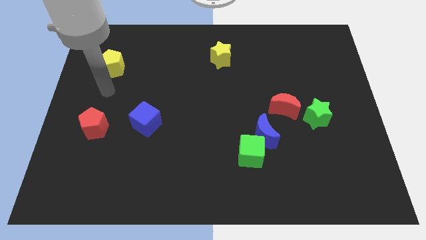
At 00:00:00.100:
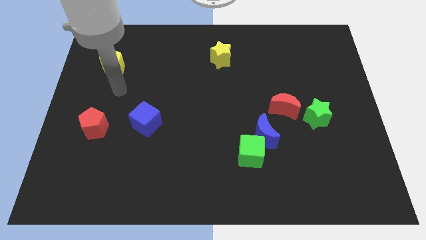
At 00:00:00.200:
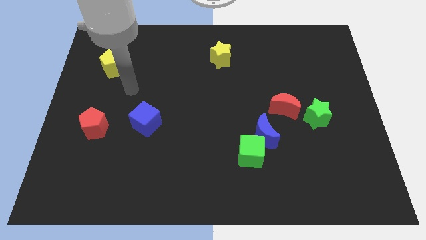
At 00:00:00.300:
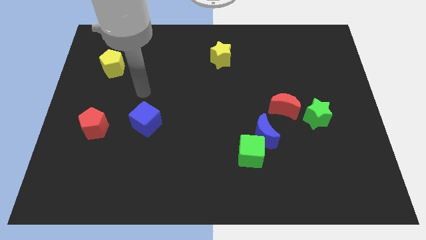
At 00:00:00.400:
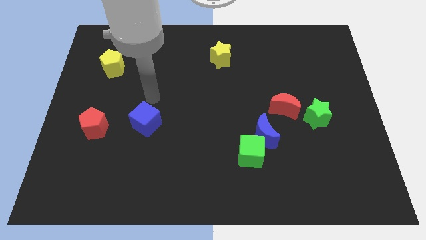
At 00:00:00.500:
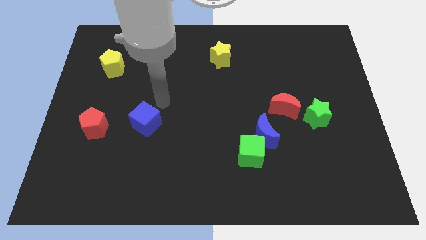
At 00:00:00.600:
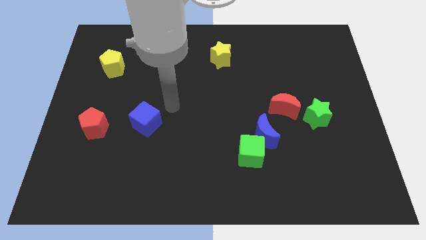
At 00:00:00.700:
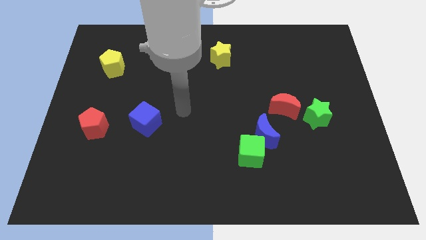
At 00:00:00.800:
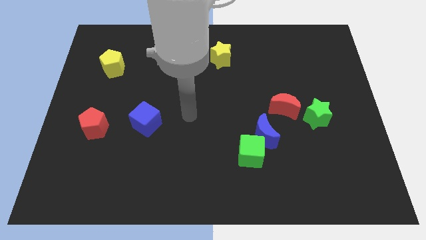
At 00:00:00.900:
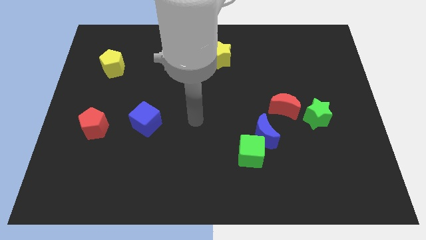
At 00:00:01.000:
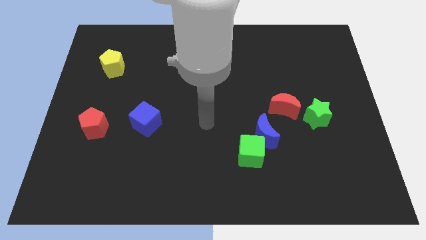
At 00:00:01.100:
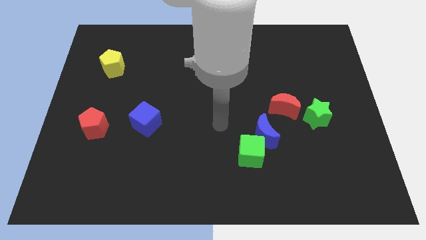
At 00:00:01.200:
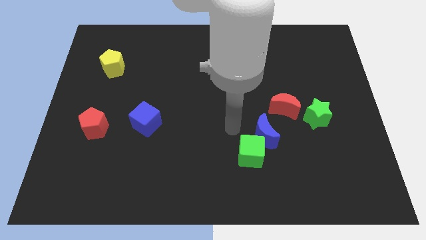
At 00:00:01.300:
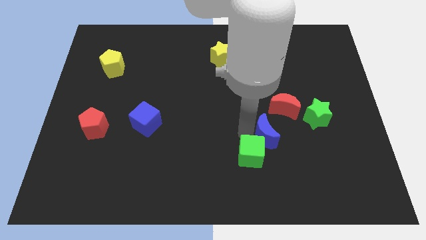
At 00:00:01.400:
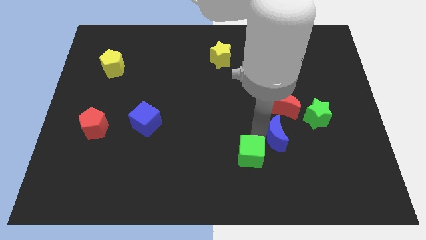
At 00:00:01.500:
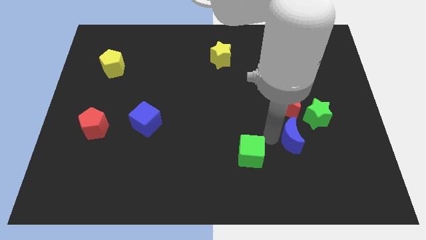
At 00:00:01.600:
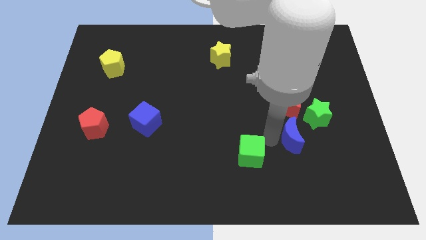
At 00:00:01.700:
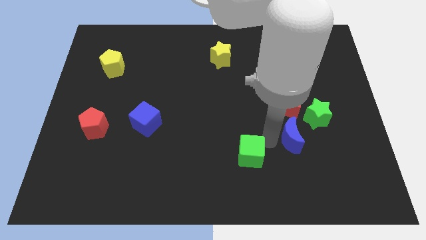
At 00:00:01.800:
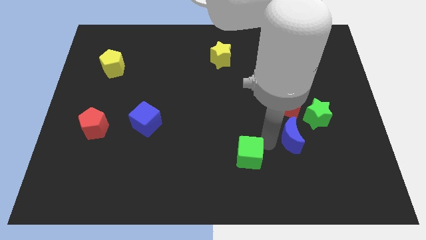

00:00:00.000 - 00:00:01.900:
move the green cube away from the blue moon

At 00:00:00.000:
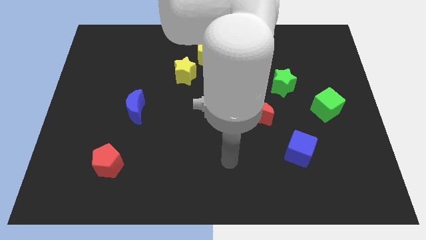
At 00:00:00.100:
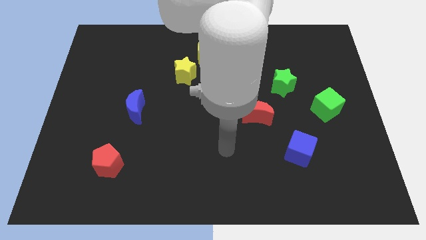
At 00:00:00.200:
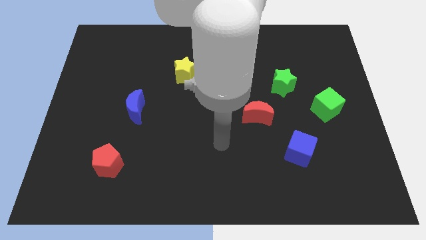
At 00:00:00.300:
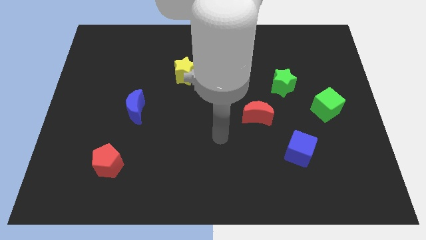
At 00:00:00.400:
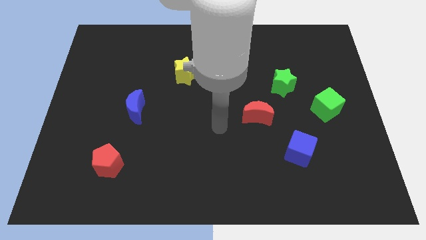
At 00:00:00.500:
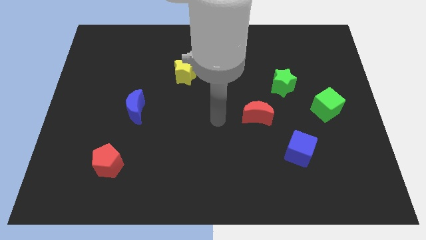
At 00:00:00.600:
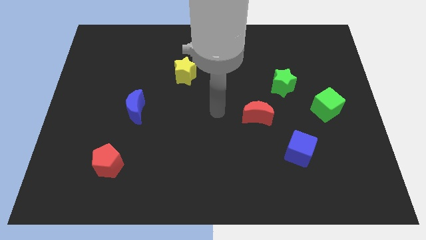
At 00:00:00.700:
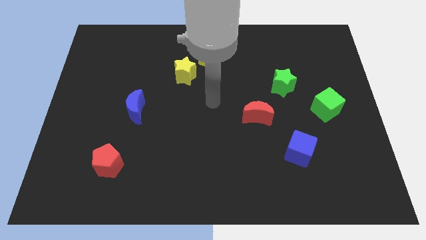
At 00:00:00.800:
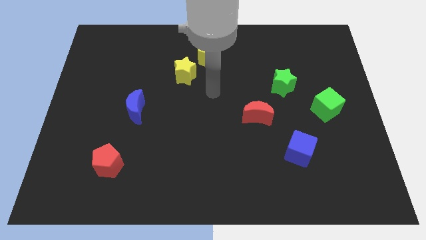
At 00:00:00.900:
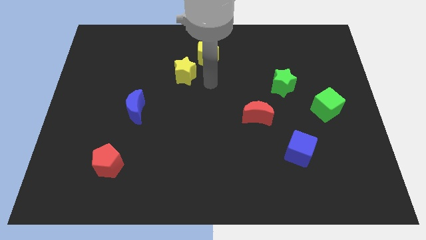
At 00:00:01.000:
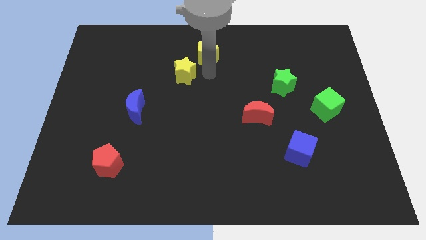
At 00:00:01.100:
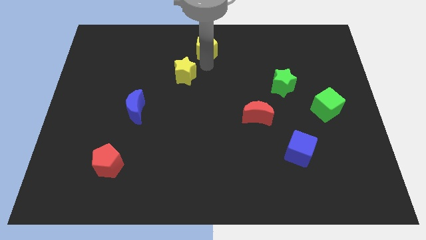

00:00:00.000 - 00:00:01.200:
separate the yellow star from the yellow pentagon

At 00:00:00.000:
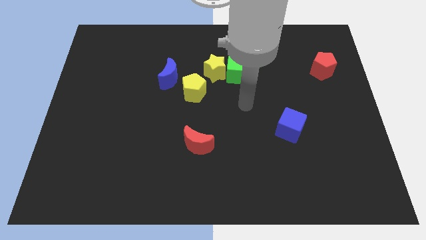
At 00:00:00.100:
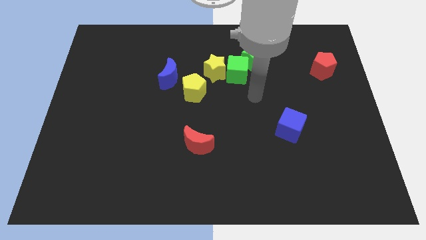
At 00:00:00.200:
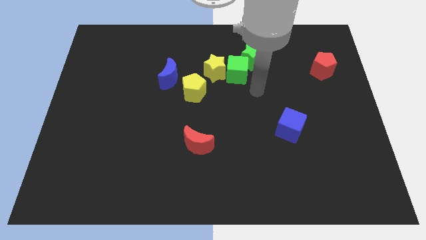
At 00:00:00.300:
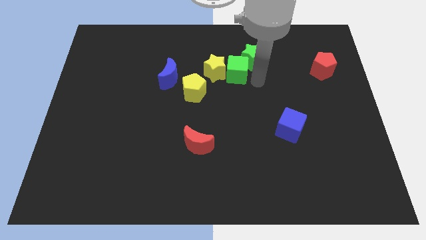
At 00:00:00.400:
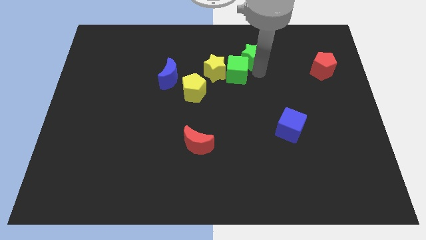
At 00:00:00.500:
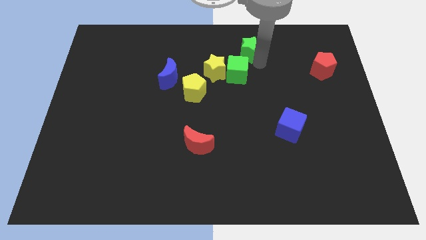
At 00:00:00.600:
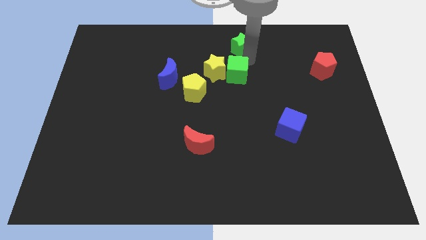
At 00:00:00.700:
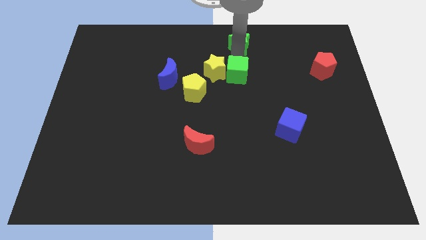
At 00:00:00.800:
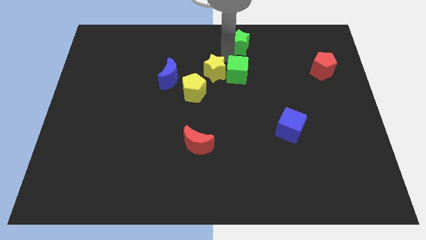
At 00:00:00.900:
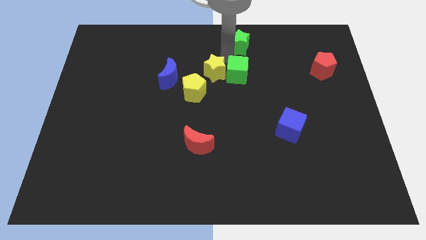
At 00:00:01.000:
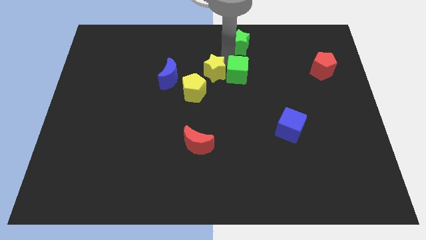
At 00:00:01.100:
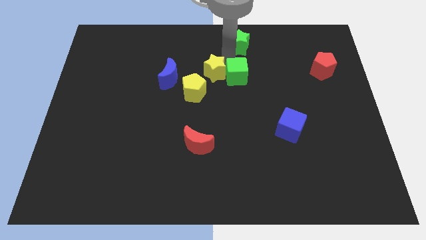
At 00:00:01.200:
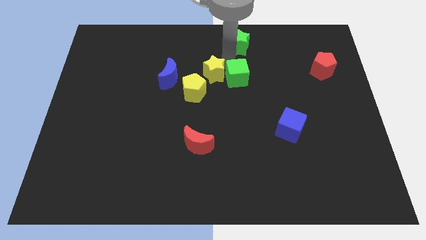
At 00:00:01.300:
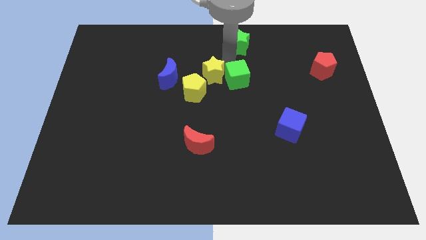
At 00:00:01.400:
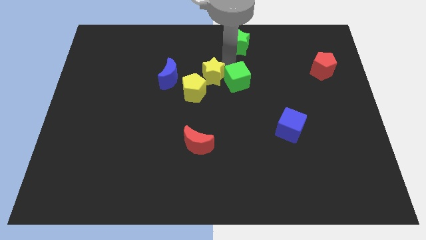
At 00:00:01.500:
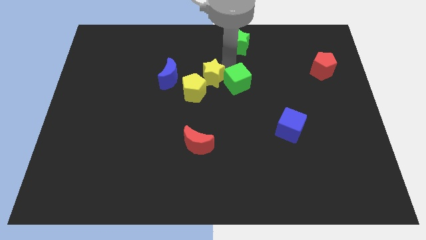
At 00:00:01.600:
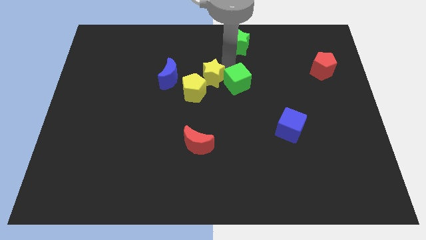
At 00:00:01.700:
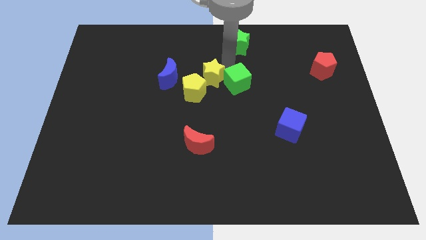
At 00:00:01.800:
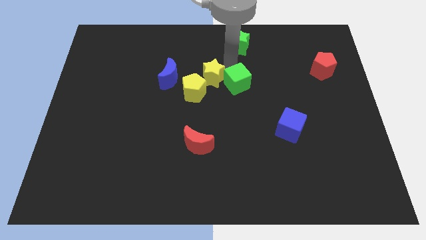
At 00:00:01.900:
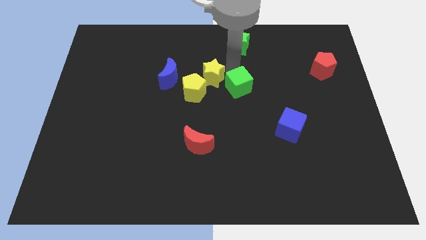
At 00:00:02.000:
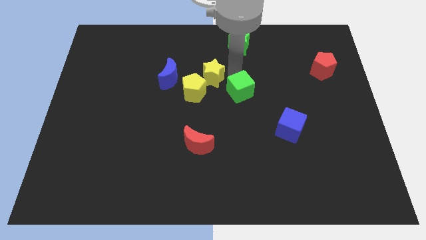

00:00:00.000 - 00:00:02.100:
move the green cube away from the yellow star and green star

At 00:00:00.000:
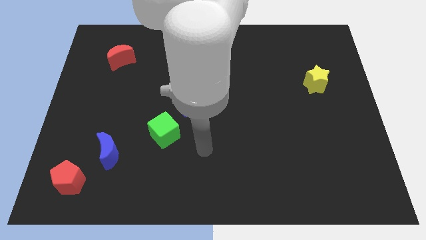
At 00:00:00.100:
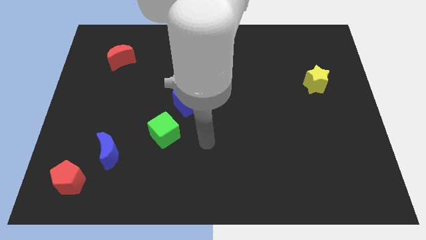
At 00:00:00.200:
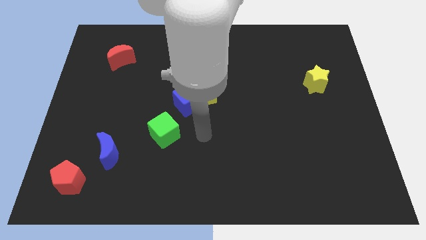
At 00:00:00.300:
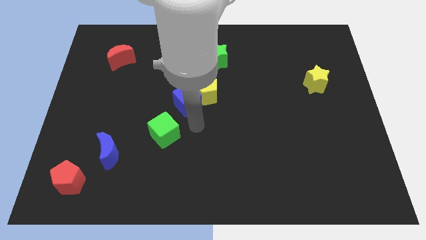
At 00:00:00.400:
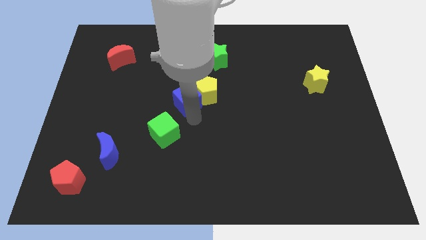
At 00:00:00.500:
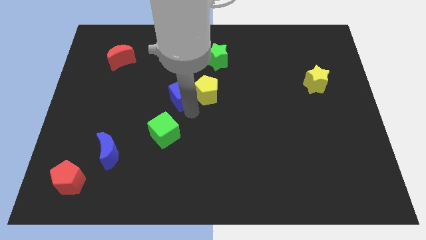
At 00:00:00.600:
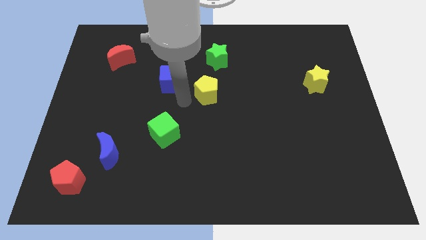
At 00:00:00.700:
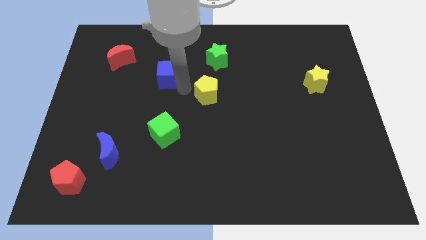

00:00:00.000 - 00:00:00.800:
separate the yellow pentagon from the blue cube

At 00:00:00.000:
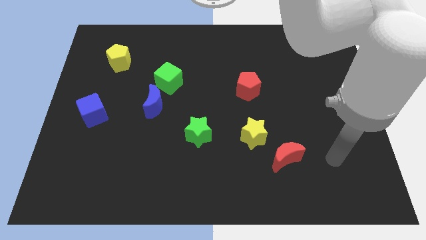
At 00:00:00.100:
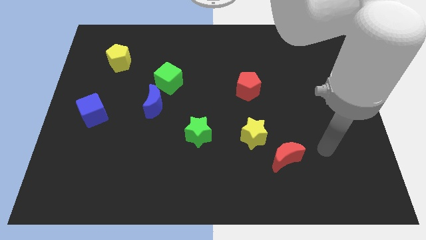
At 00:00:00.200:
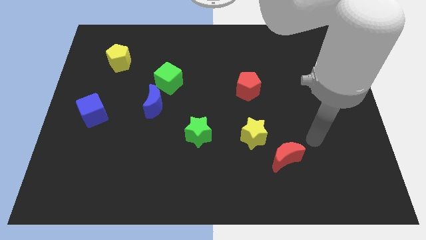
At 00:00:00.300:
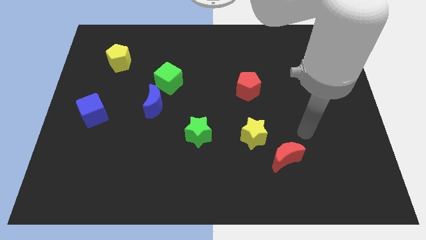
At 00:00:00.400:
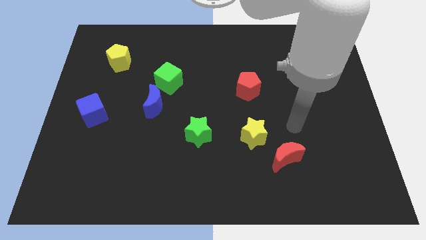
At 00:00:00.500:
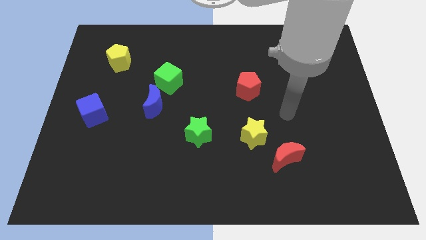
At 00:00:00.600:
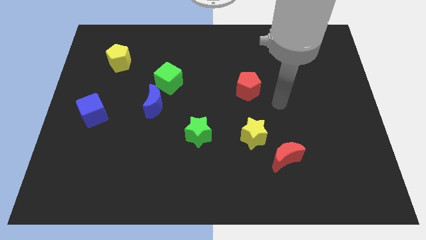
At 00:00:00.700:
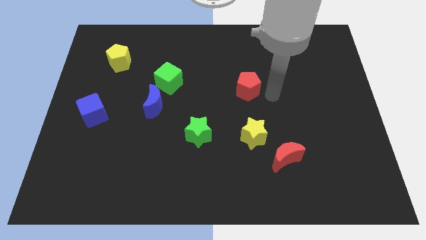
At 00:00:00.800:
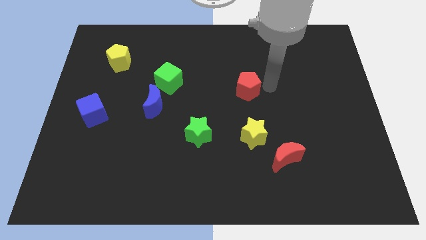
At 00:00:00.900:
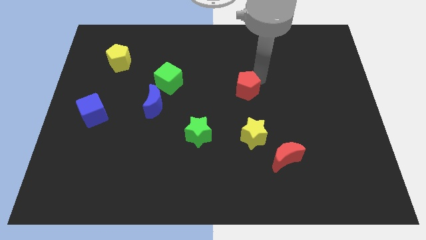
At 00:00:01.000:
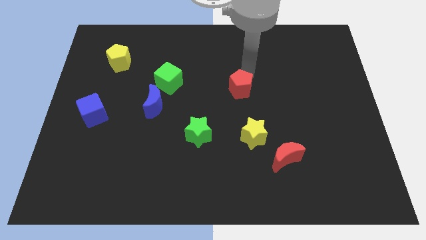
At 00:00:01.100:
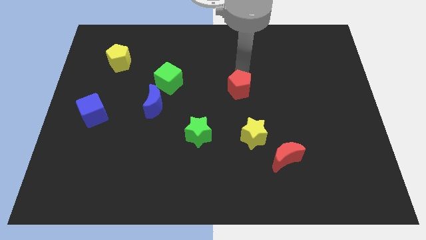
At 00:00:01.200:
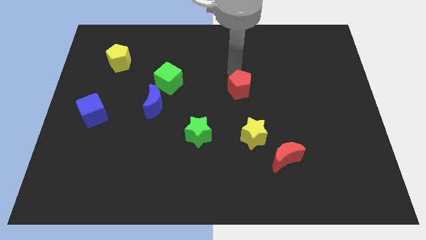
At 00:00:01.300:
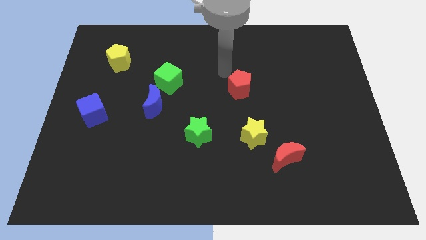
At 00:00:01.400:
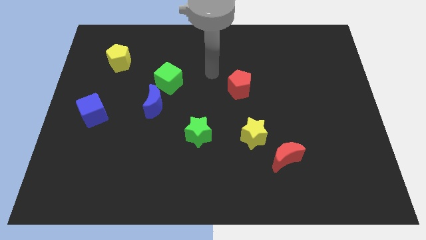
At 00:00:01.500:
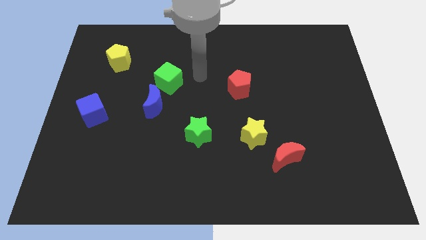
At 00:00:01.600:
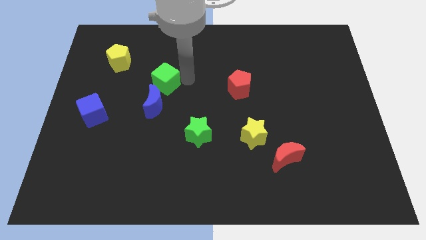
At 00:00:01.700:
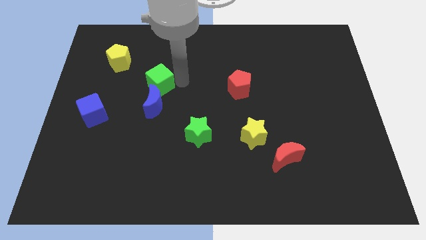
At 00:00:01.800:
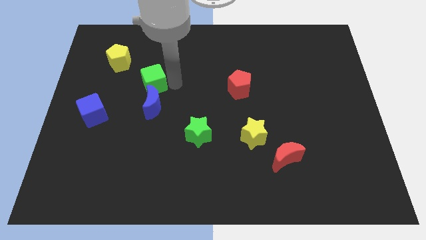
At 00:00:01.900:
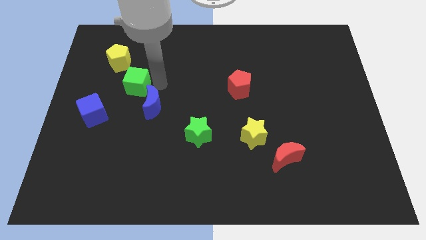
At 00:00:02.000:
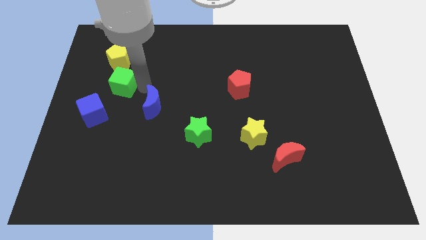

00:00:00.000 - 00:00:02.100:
separate the blue moon from the green cube

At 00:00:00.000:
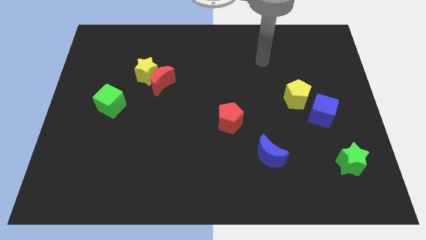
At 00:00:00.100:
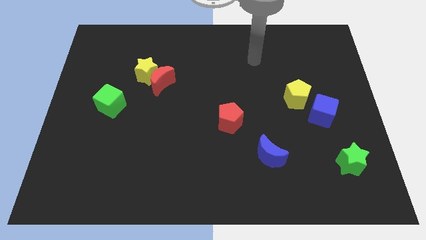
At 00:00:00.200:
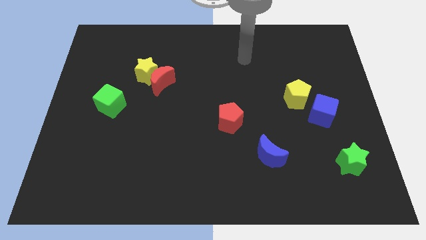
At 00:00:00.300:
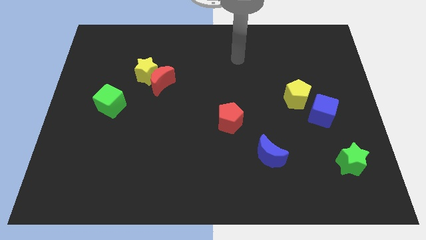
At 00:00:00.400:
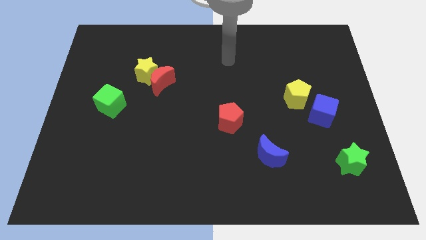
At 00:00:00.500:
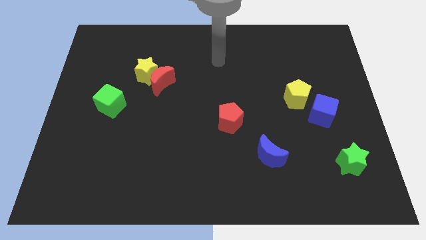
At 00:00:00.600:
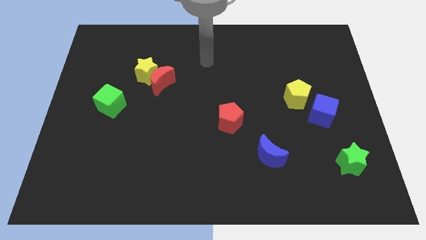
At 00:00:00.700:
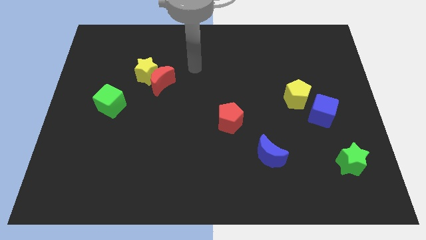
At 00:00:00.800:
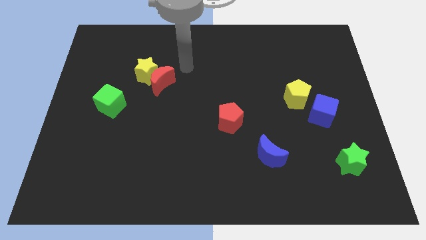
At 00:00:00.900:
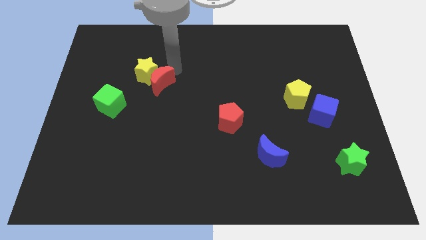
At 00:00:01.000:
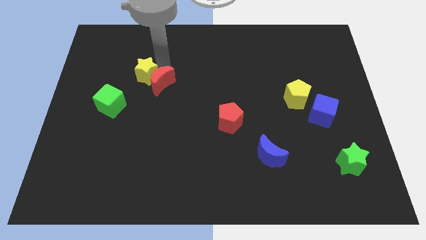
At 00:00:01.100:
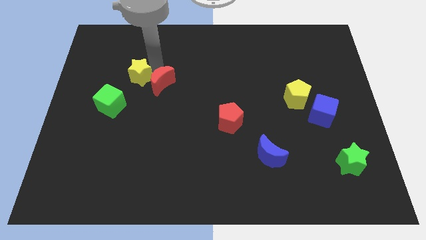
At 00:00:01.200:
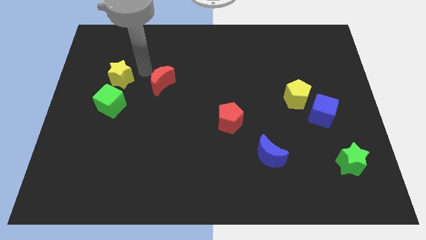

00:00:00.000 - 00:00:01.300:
separate the red moon from the yellow star
